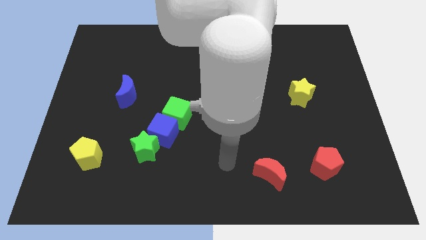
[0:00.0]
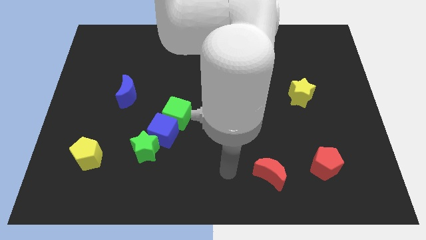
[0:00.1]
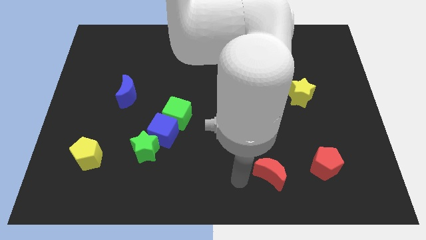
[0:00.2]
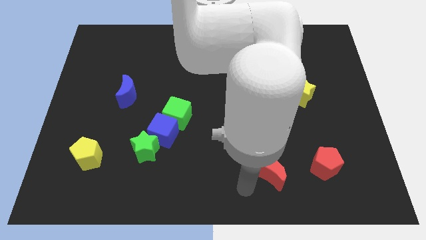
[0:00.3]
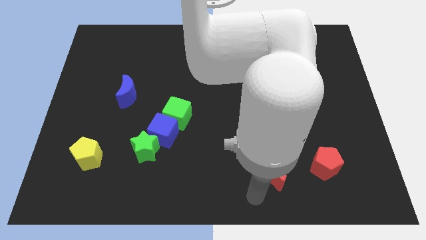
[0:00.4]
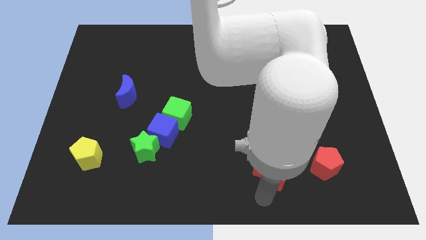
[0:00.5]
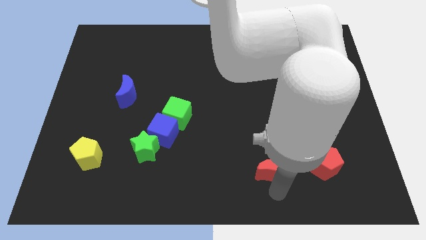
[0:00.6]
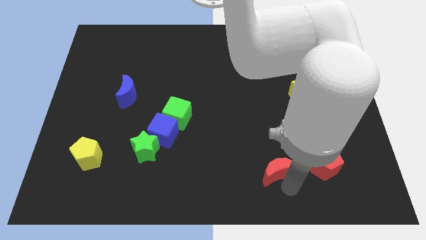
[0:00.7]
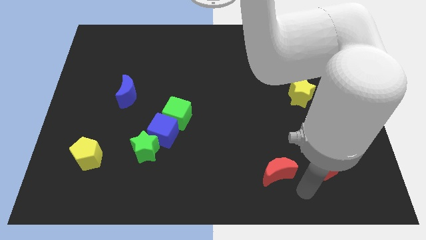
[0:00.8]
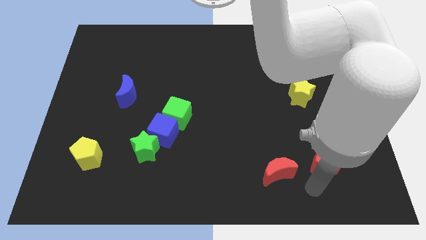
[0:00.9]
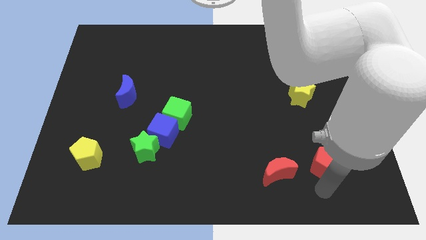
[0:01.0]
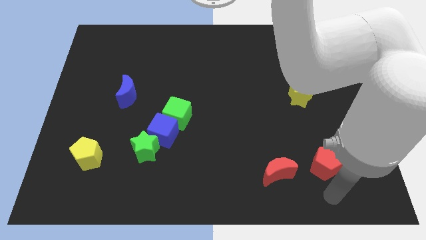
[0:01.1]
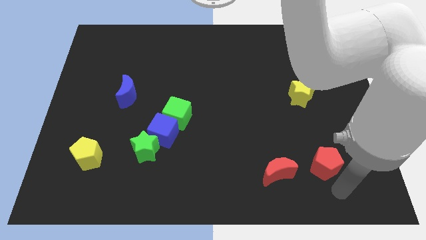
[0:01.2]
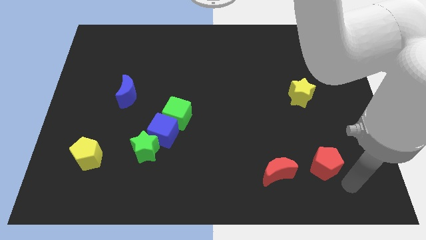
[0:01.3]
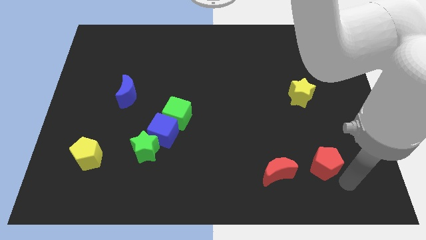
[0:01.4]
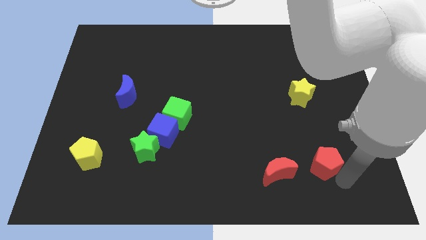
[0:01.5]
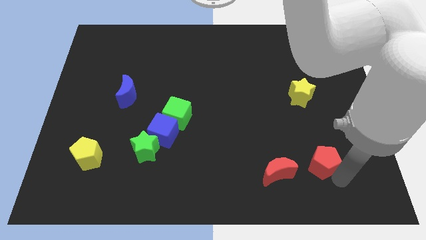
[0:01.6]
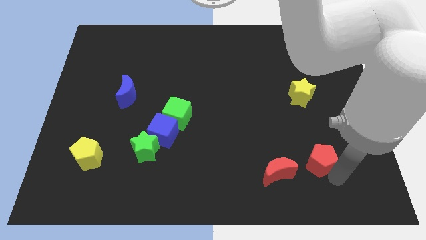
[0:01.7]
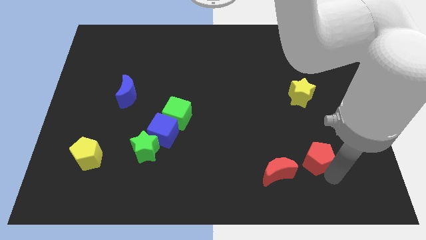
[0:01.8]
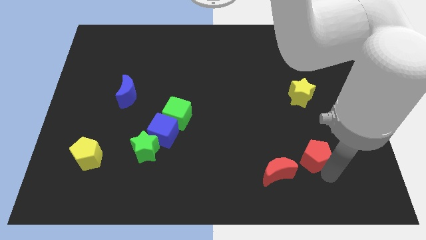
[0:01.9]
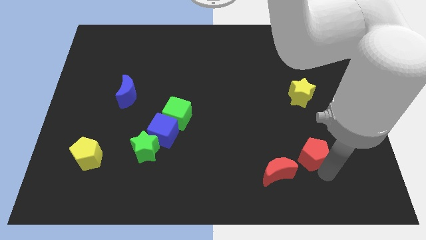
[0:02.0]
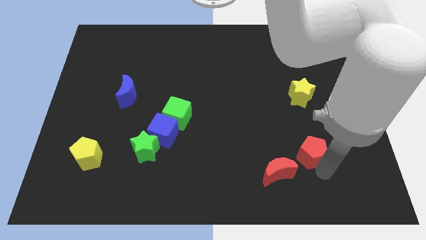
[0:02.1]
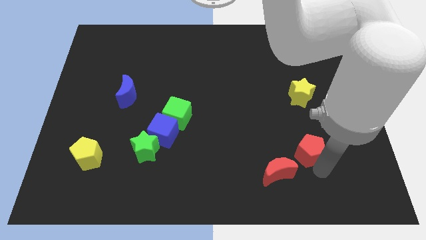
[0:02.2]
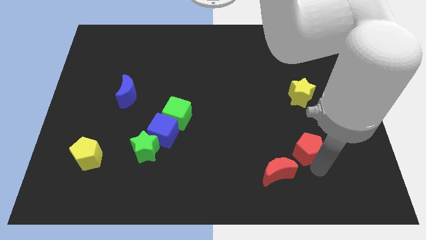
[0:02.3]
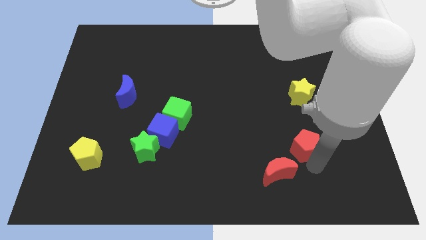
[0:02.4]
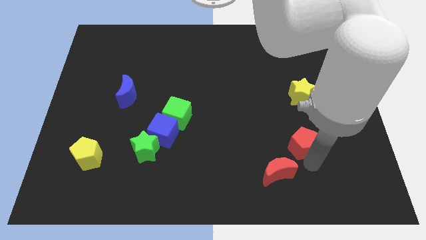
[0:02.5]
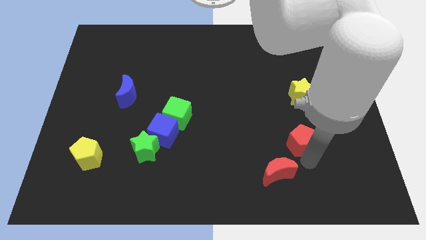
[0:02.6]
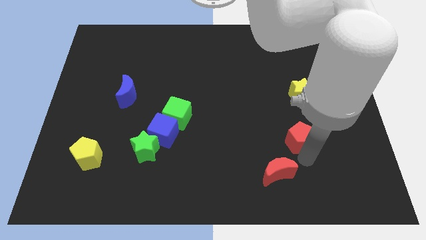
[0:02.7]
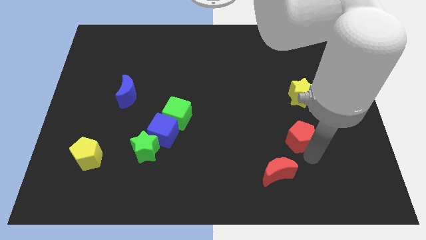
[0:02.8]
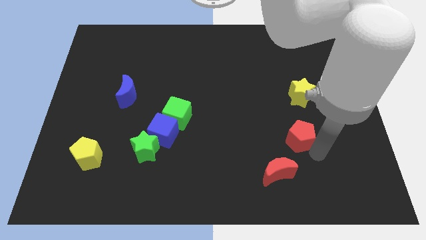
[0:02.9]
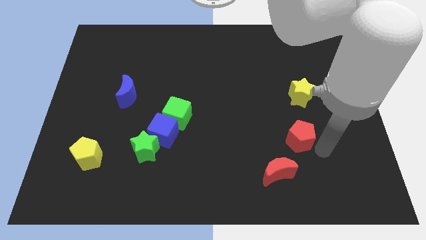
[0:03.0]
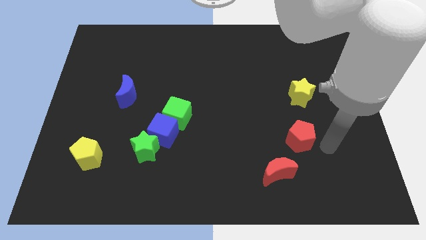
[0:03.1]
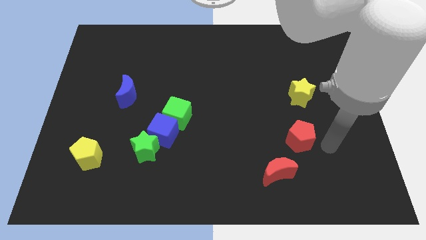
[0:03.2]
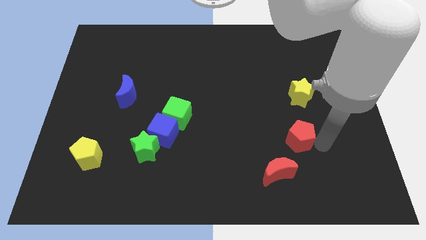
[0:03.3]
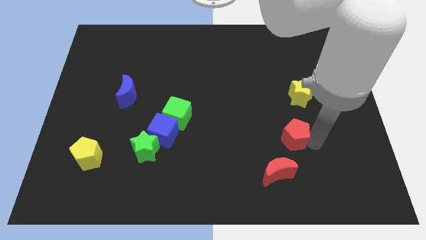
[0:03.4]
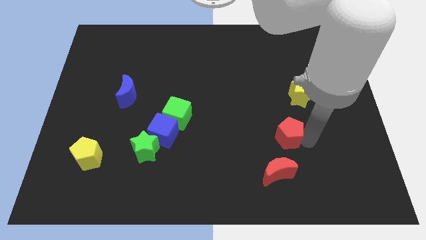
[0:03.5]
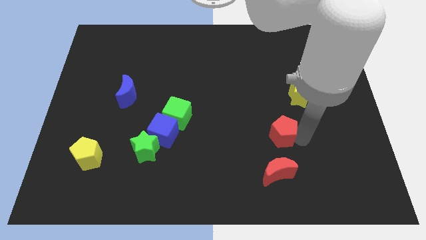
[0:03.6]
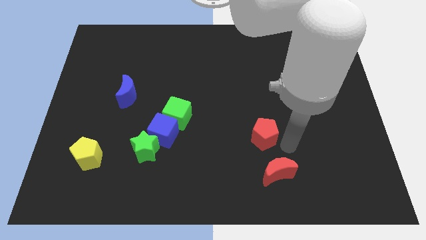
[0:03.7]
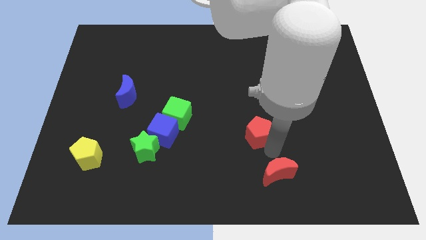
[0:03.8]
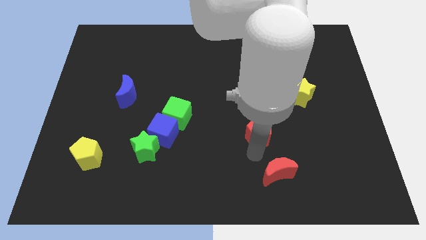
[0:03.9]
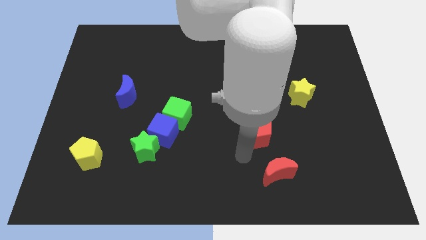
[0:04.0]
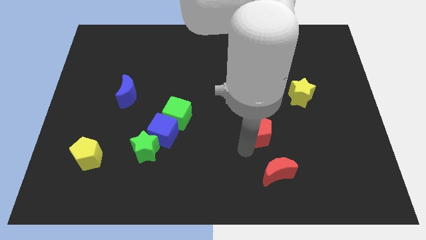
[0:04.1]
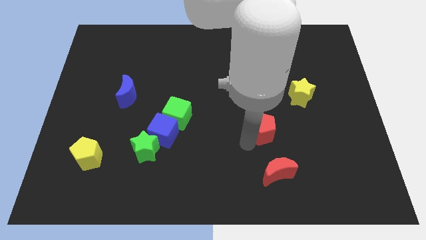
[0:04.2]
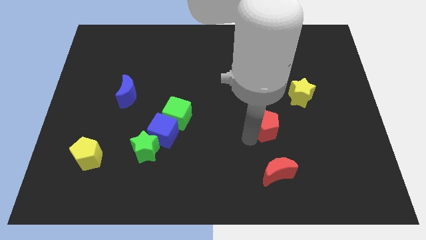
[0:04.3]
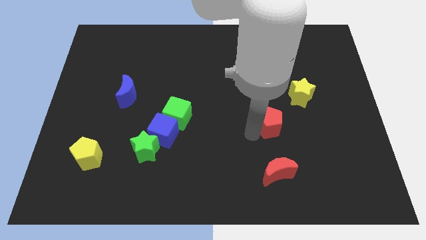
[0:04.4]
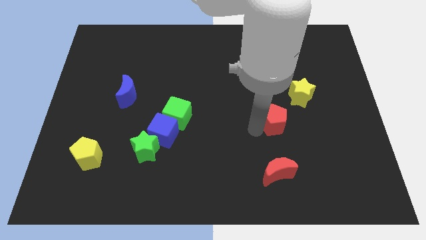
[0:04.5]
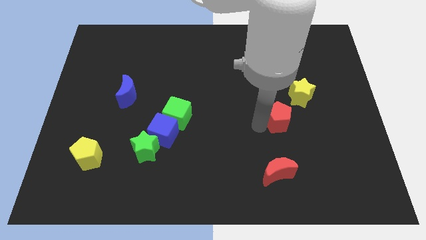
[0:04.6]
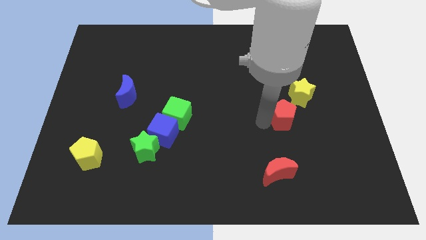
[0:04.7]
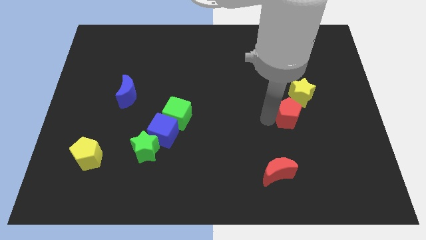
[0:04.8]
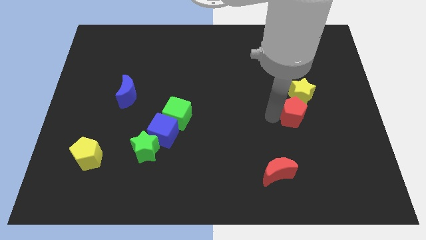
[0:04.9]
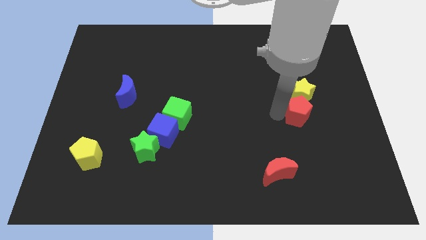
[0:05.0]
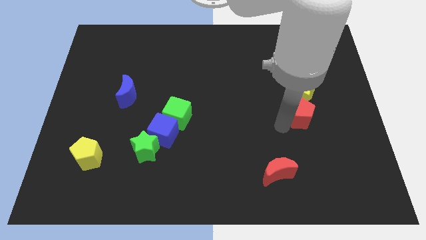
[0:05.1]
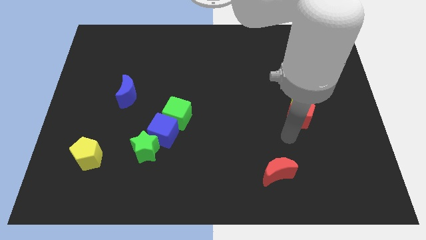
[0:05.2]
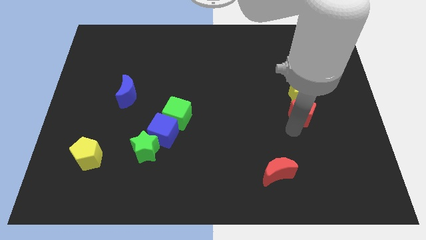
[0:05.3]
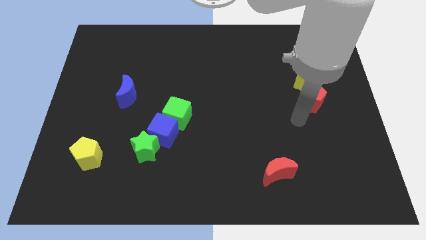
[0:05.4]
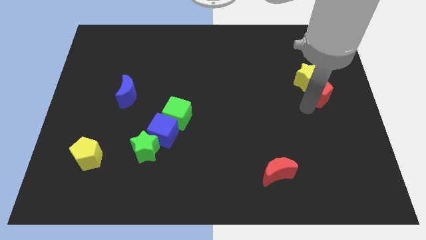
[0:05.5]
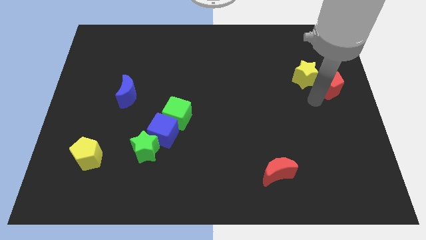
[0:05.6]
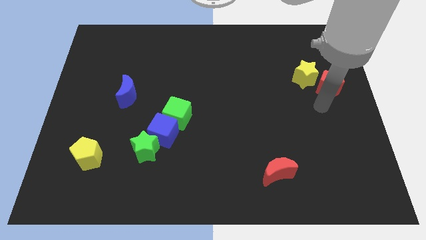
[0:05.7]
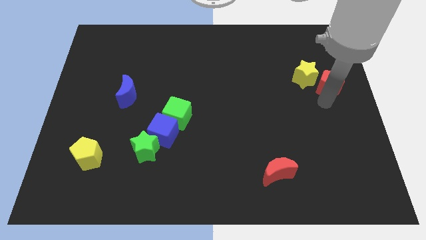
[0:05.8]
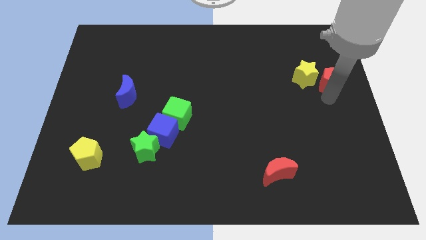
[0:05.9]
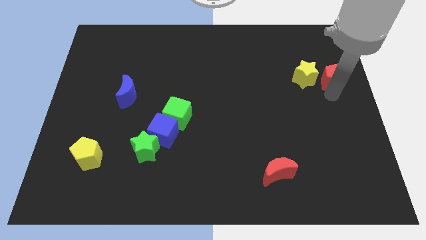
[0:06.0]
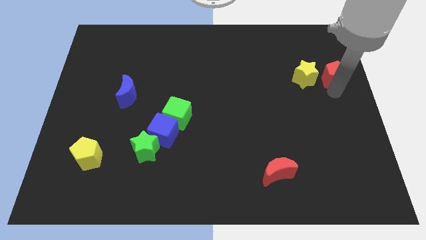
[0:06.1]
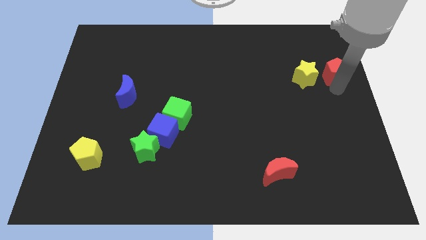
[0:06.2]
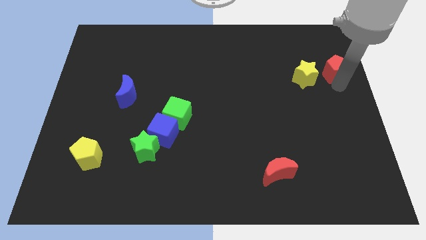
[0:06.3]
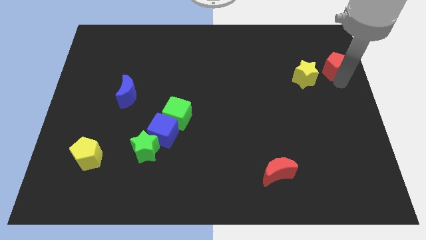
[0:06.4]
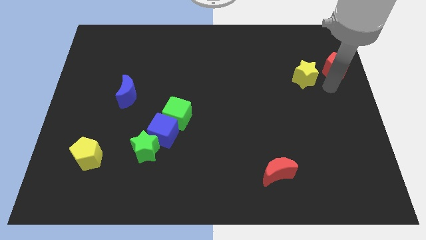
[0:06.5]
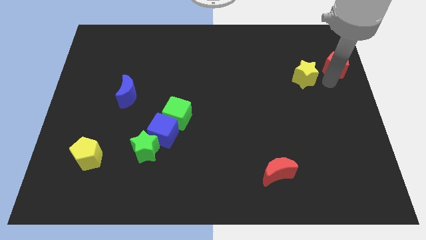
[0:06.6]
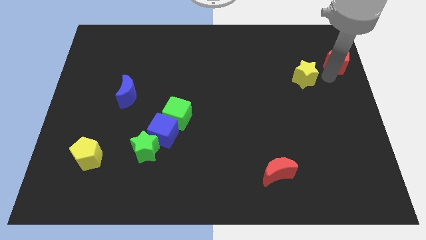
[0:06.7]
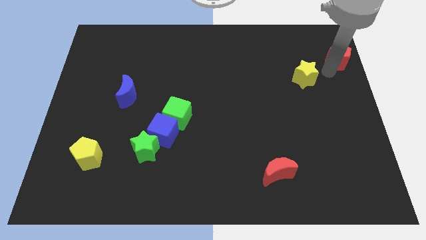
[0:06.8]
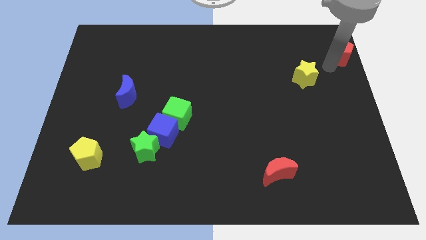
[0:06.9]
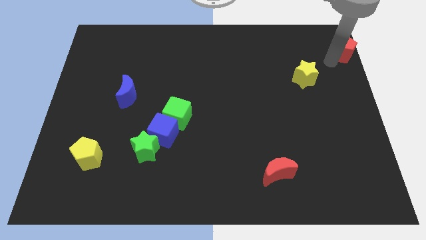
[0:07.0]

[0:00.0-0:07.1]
push the red pentagon to the top right

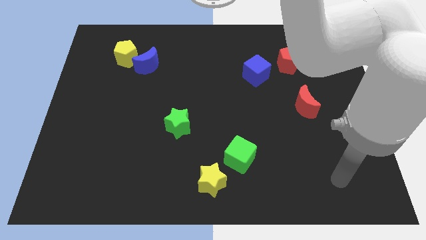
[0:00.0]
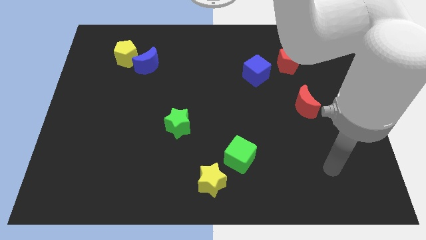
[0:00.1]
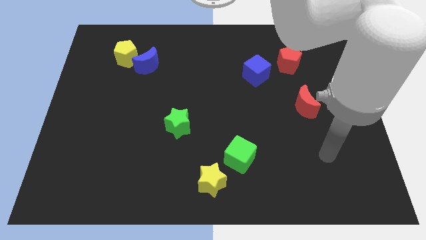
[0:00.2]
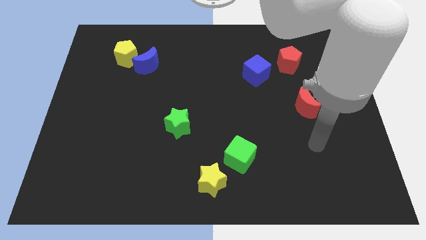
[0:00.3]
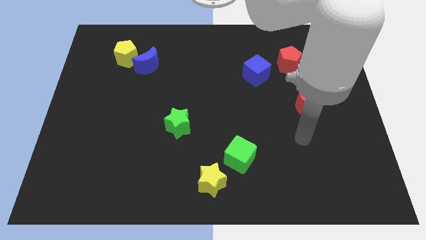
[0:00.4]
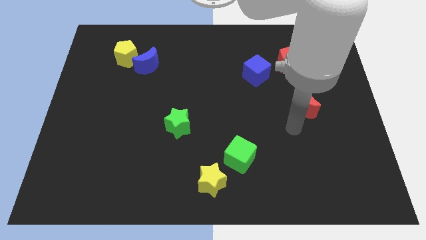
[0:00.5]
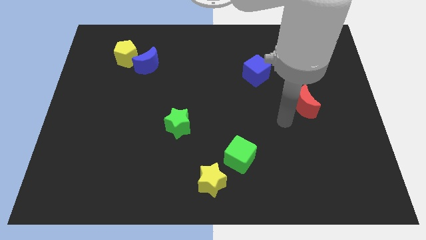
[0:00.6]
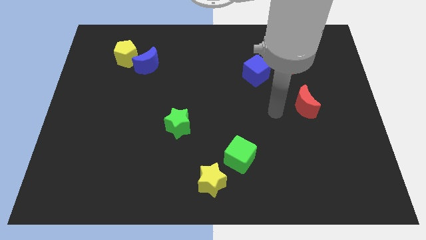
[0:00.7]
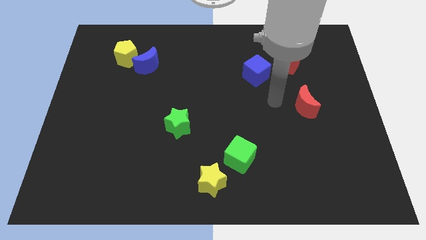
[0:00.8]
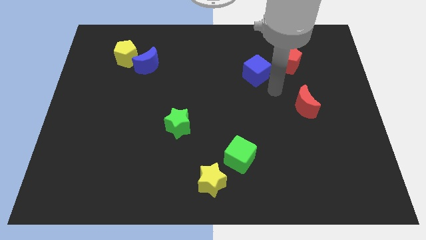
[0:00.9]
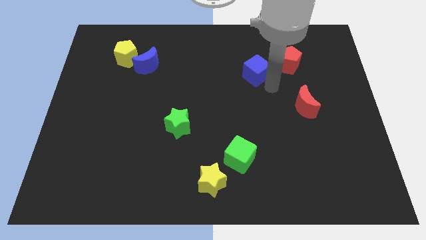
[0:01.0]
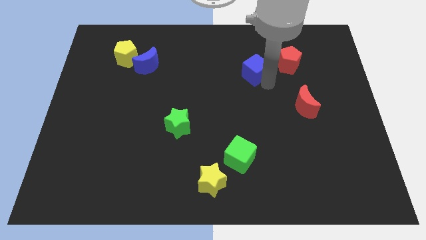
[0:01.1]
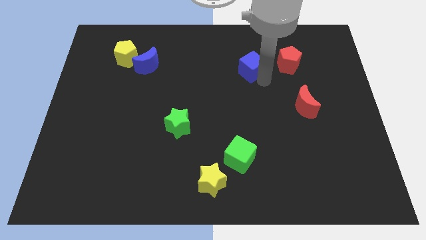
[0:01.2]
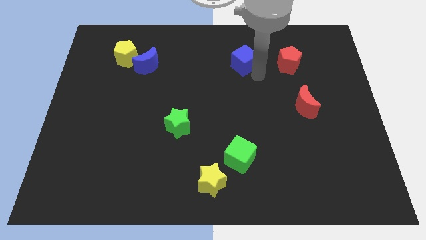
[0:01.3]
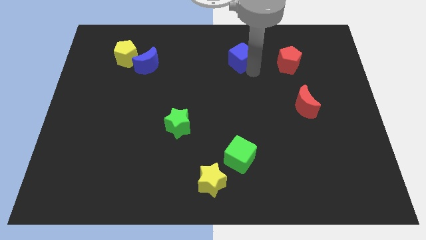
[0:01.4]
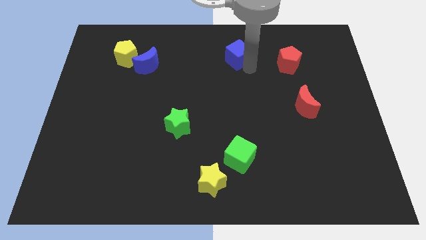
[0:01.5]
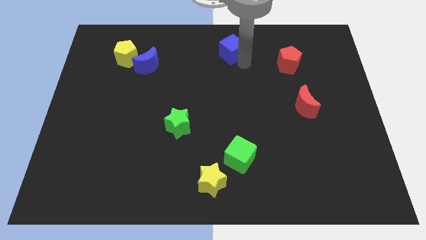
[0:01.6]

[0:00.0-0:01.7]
put the blue cube to the top side
